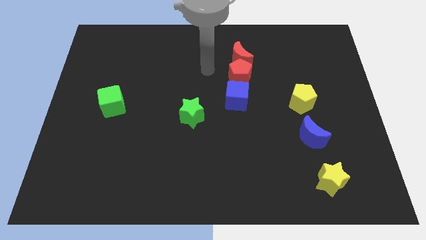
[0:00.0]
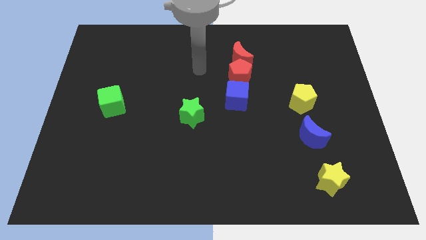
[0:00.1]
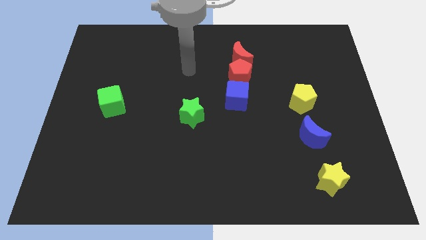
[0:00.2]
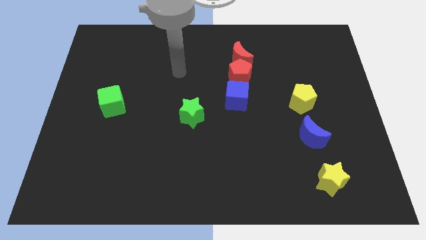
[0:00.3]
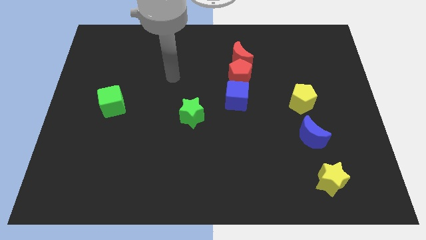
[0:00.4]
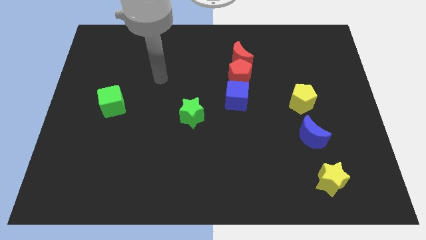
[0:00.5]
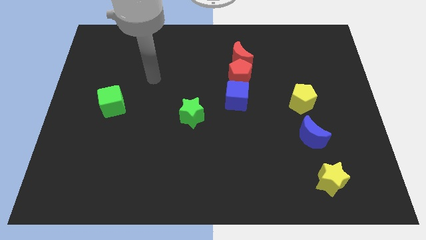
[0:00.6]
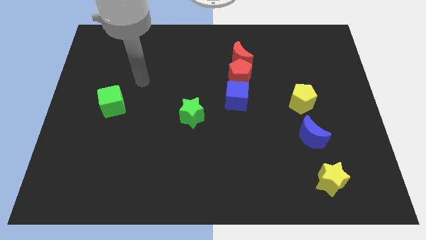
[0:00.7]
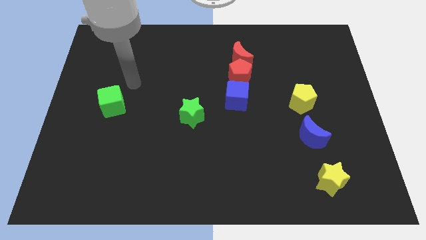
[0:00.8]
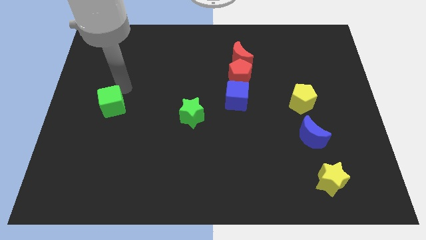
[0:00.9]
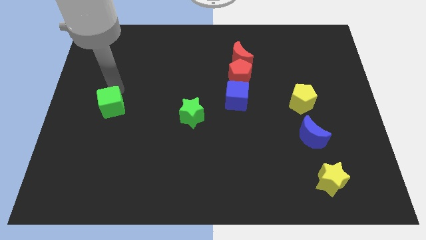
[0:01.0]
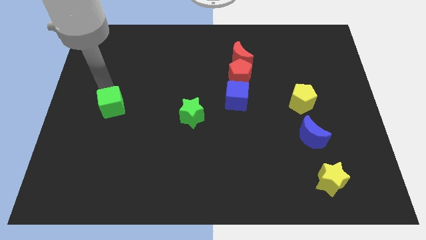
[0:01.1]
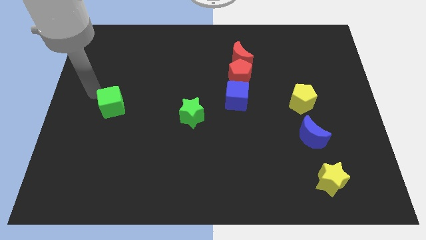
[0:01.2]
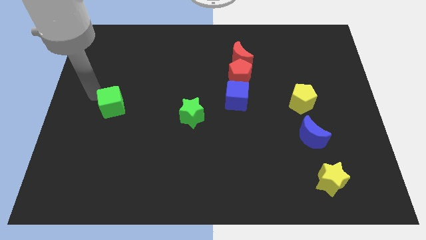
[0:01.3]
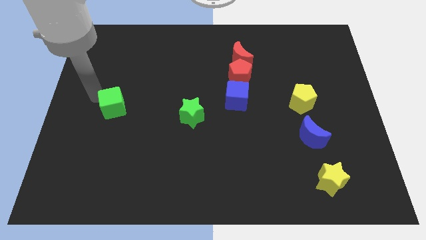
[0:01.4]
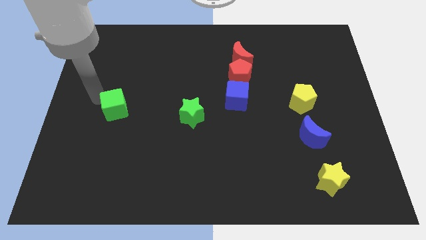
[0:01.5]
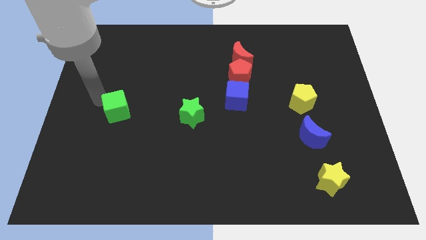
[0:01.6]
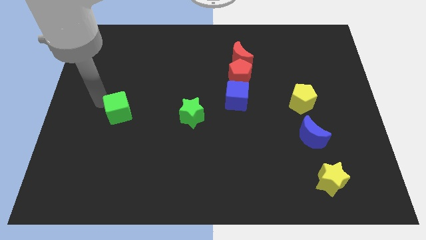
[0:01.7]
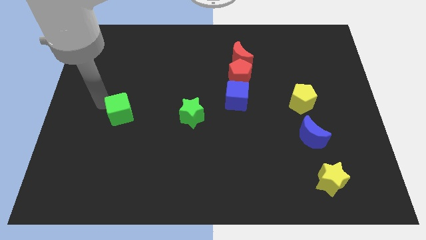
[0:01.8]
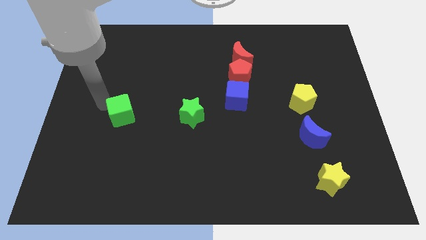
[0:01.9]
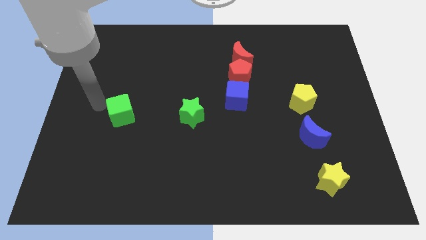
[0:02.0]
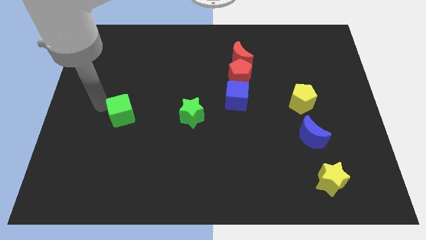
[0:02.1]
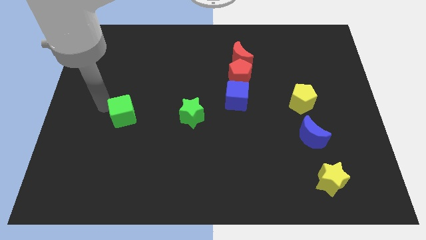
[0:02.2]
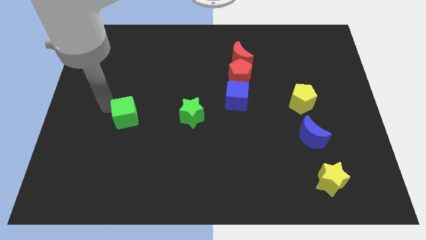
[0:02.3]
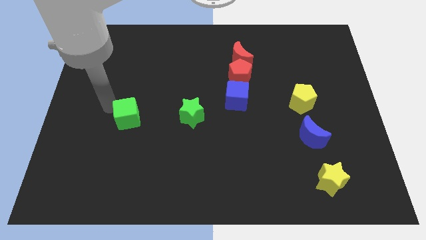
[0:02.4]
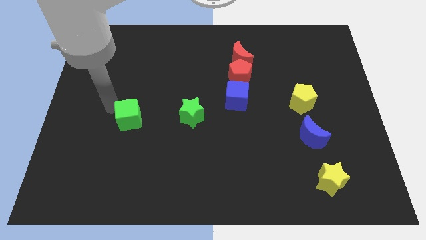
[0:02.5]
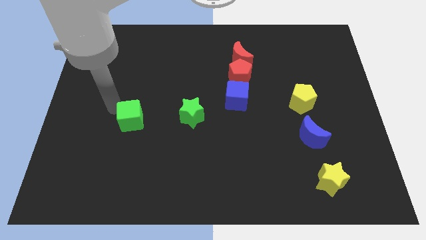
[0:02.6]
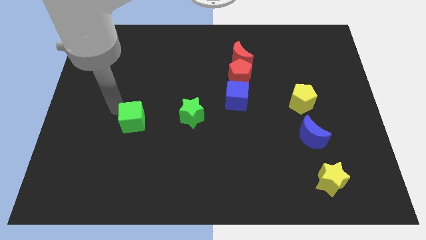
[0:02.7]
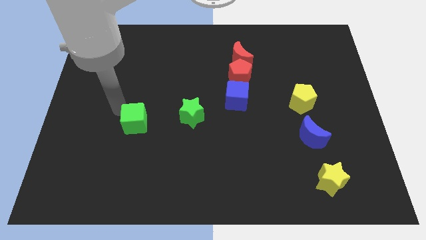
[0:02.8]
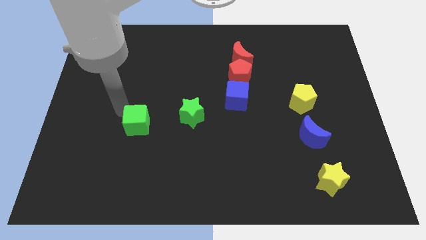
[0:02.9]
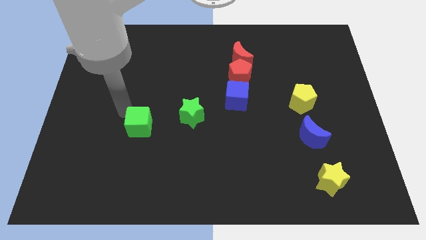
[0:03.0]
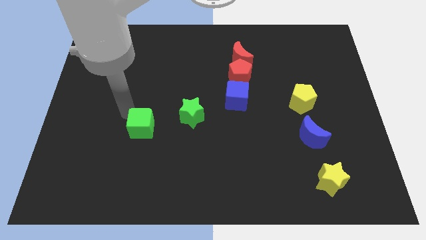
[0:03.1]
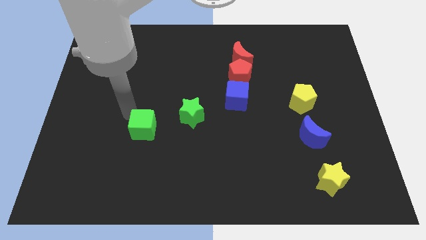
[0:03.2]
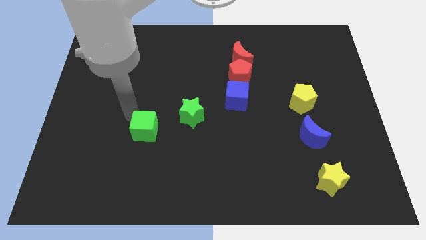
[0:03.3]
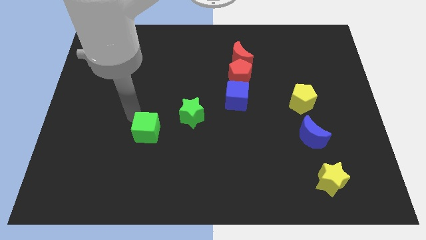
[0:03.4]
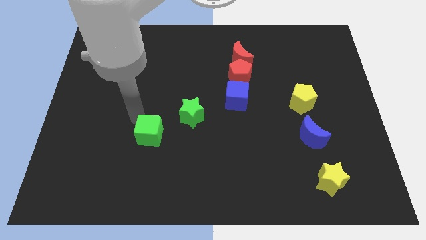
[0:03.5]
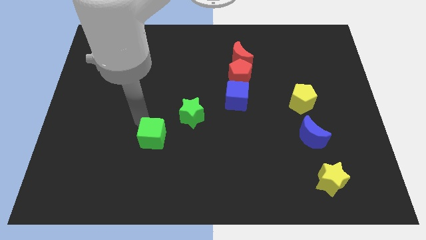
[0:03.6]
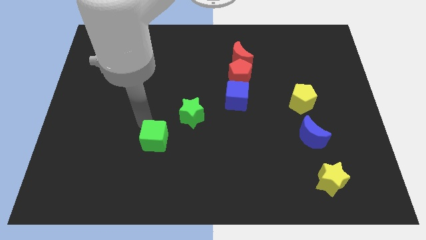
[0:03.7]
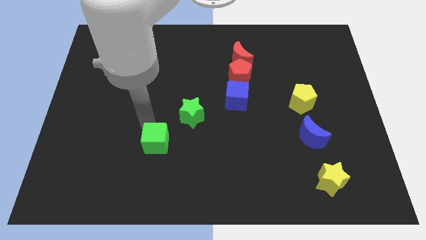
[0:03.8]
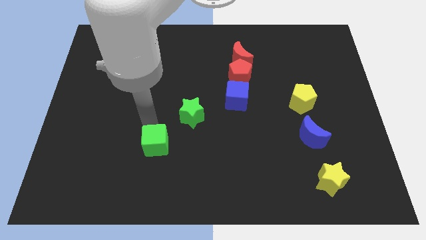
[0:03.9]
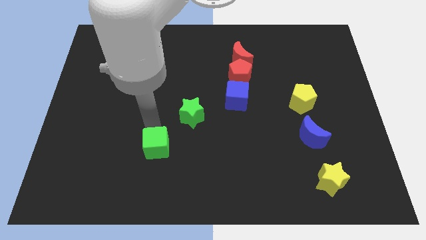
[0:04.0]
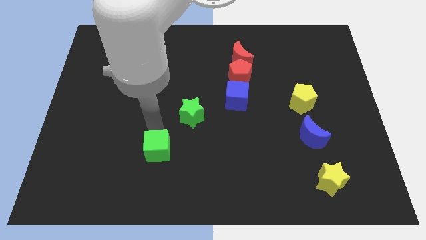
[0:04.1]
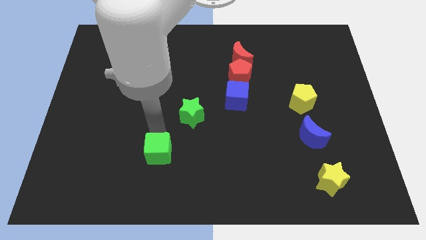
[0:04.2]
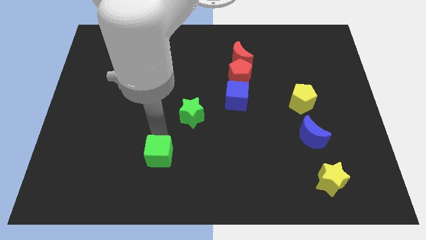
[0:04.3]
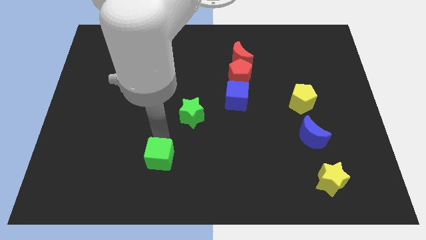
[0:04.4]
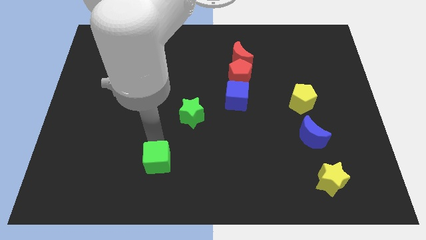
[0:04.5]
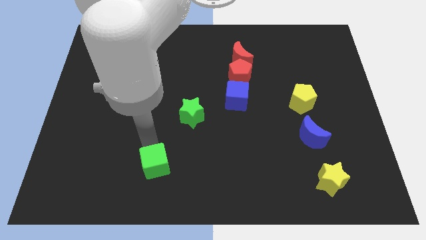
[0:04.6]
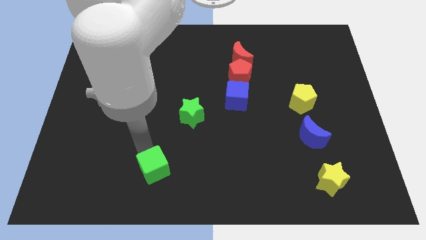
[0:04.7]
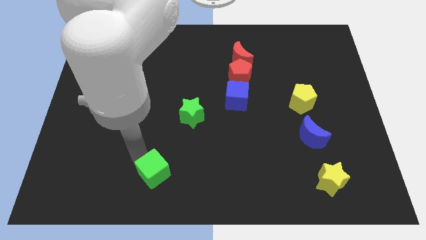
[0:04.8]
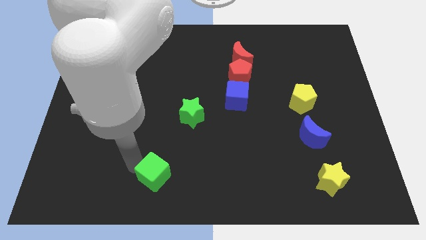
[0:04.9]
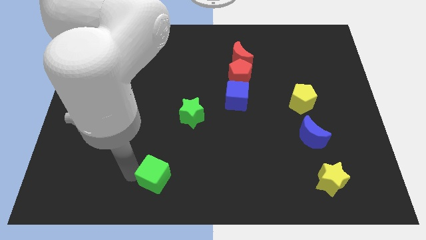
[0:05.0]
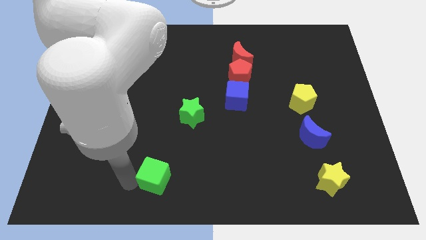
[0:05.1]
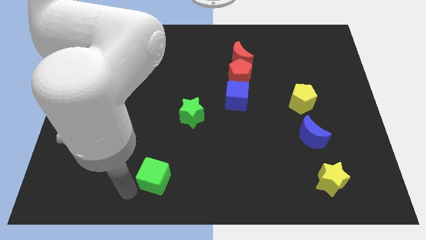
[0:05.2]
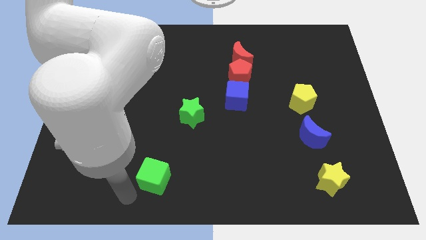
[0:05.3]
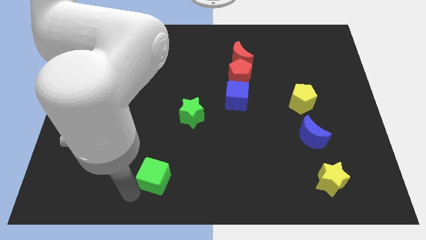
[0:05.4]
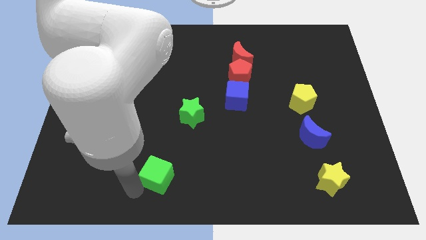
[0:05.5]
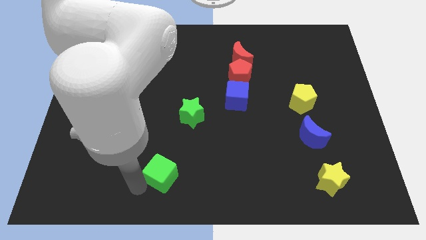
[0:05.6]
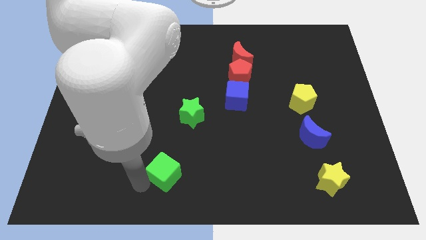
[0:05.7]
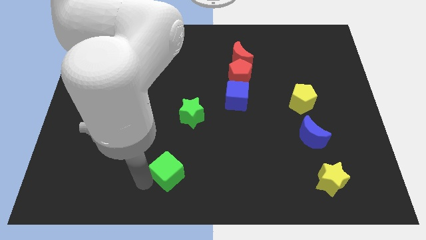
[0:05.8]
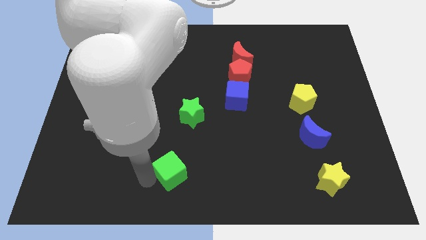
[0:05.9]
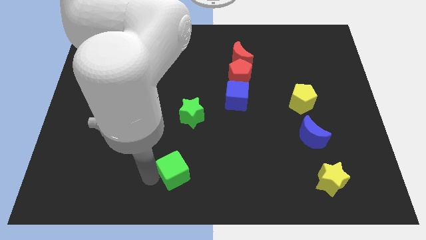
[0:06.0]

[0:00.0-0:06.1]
push the green cube below the green star

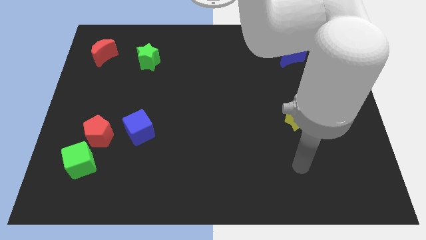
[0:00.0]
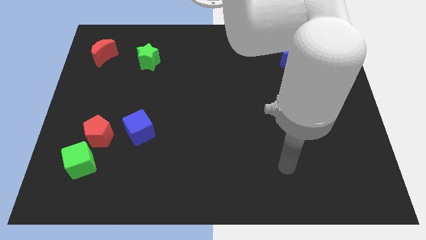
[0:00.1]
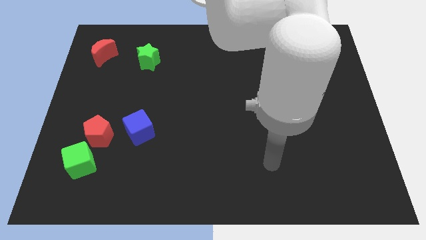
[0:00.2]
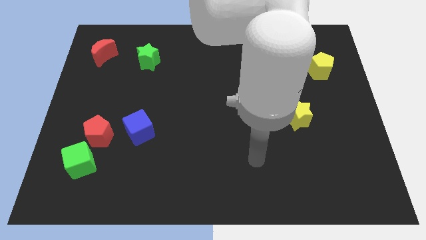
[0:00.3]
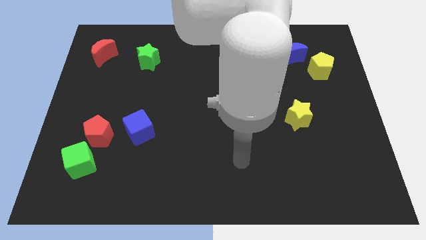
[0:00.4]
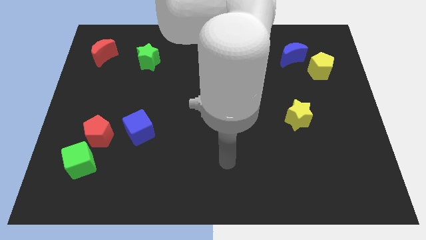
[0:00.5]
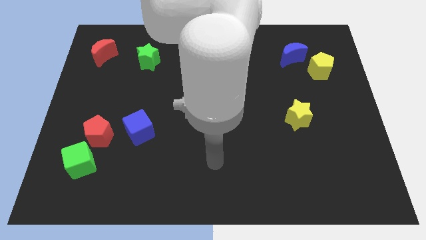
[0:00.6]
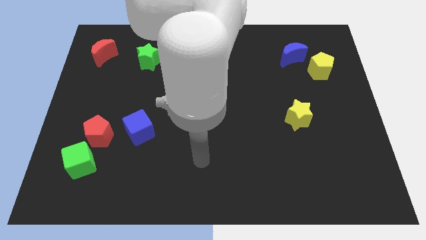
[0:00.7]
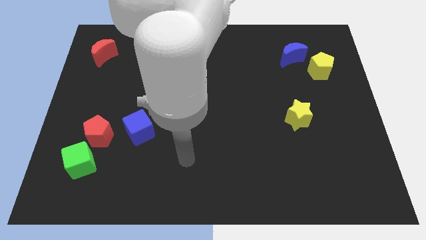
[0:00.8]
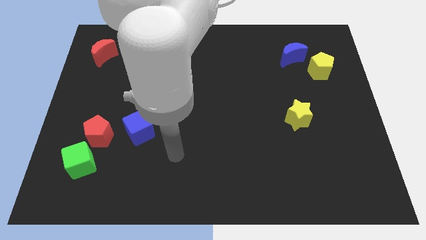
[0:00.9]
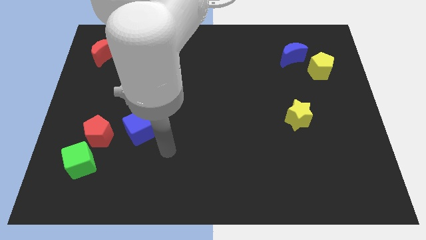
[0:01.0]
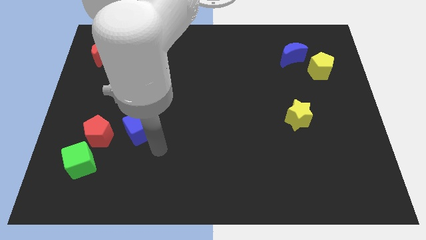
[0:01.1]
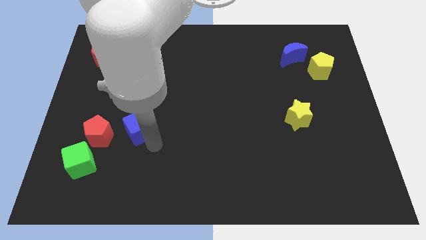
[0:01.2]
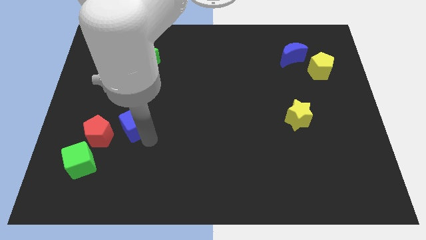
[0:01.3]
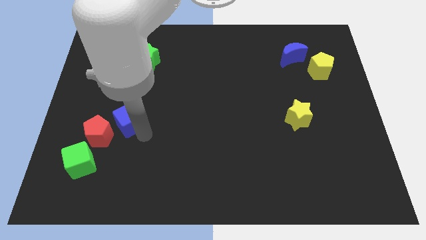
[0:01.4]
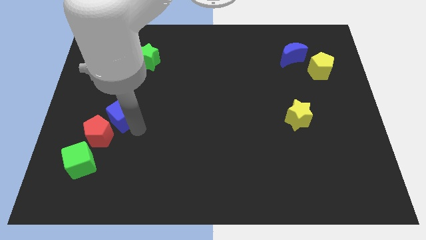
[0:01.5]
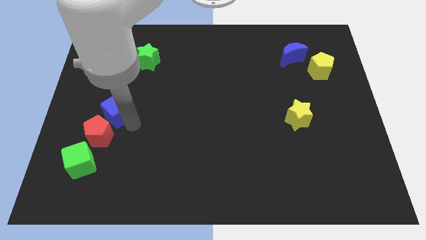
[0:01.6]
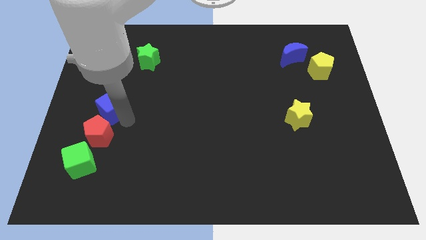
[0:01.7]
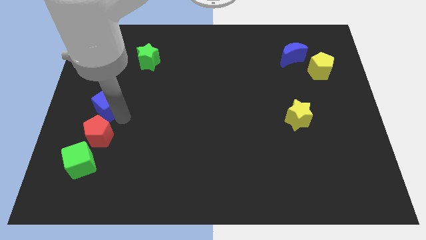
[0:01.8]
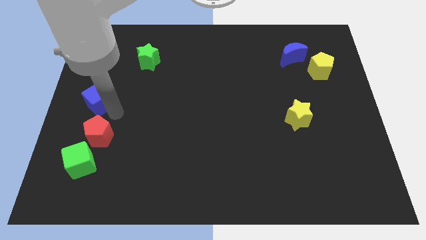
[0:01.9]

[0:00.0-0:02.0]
slide the blue cube to the bottom side of the red moon
